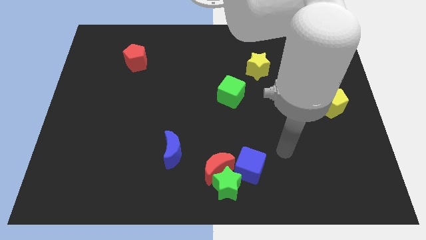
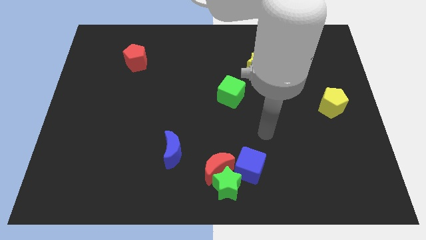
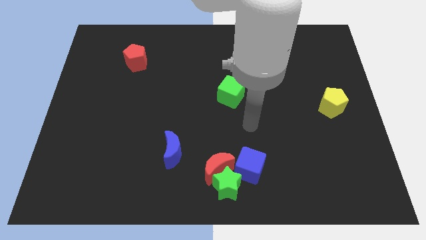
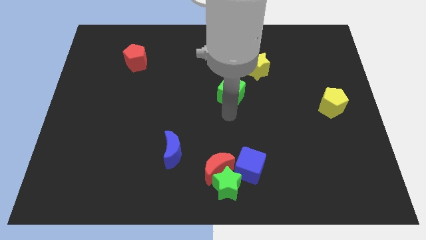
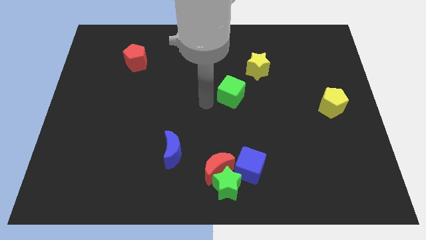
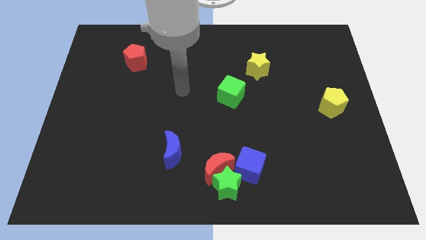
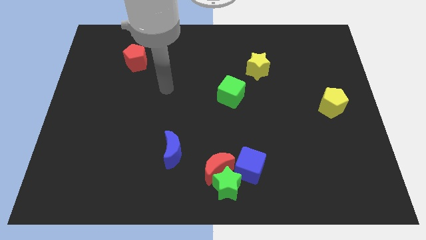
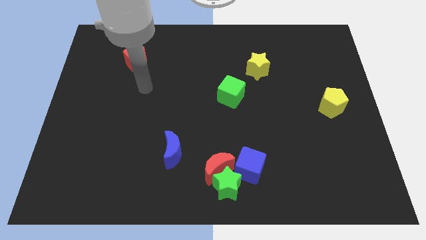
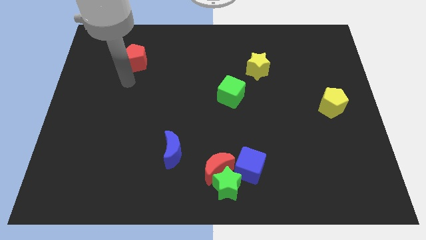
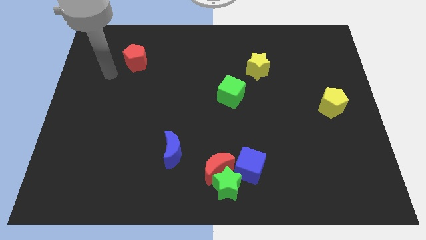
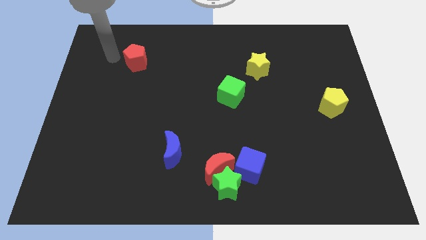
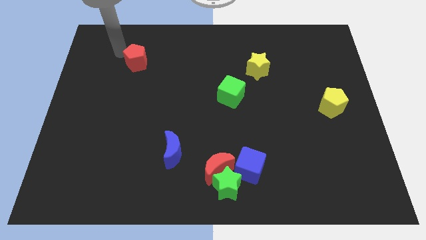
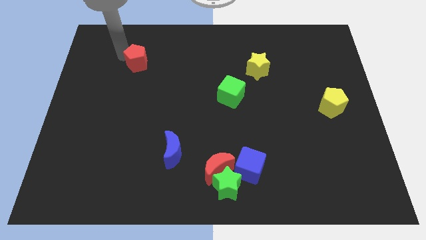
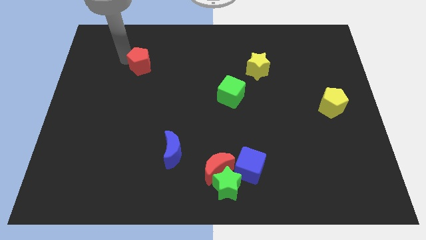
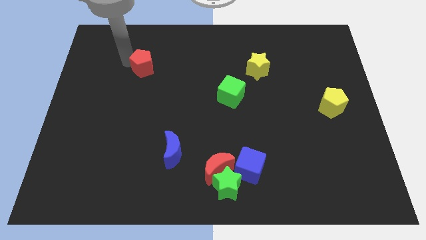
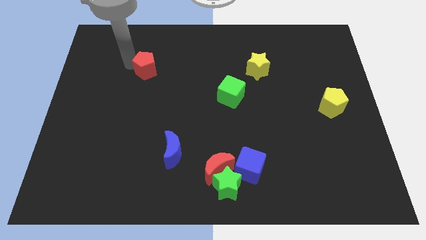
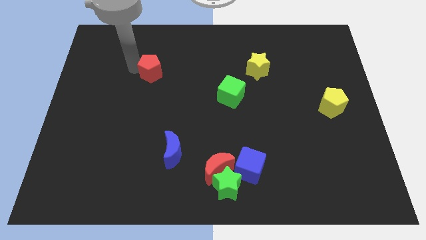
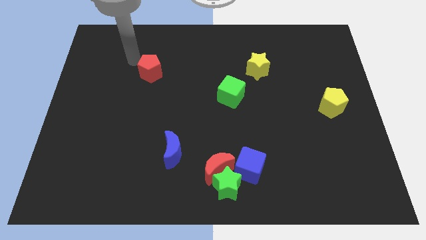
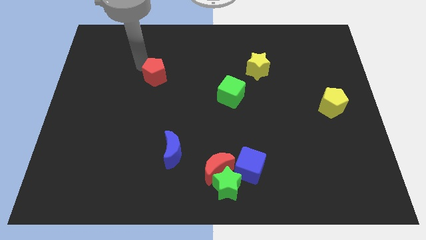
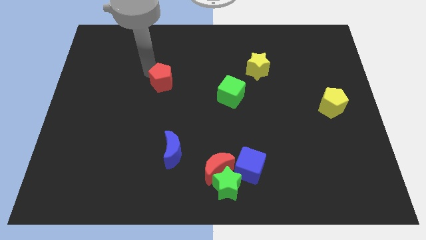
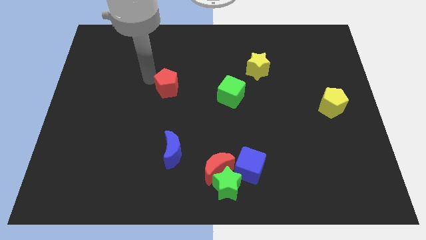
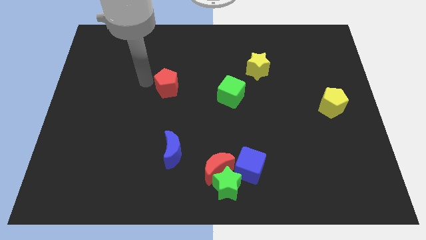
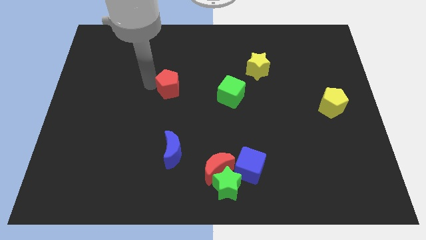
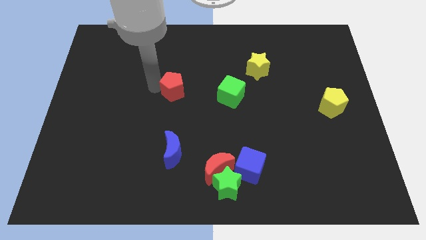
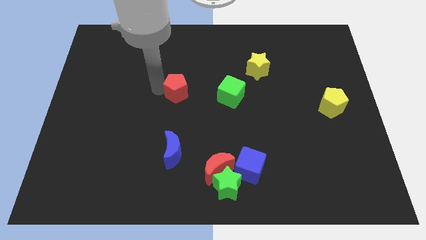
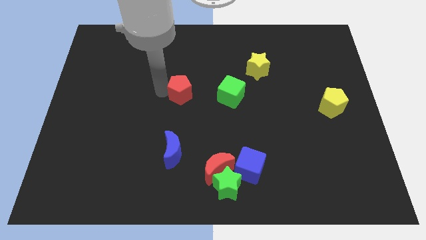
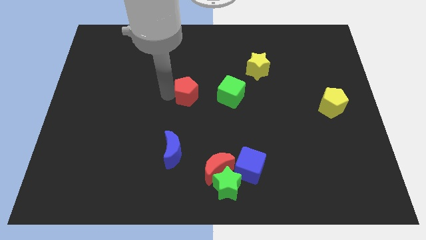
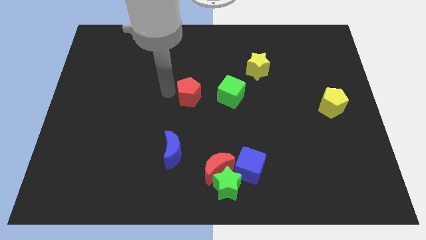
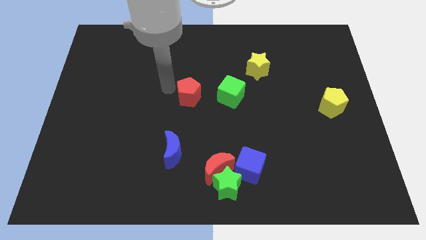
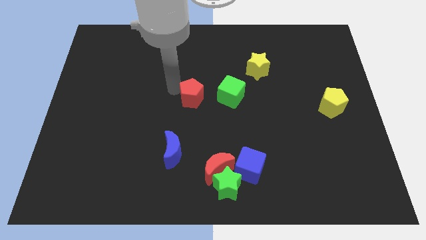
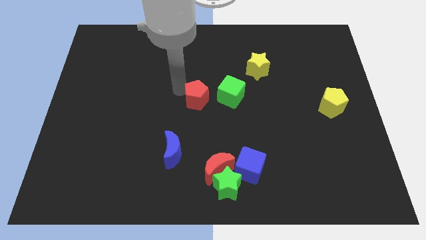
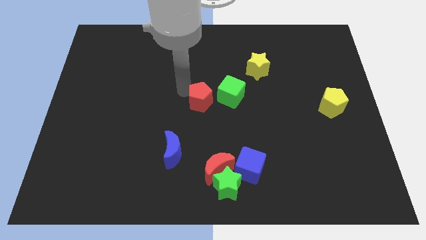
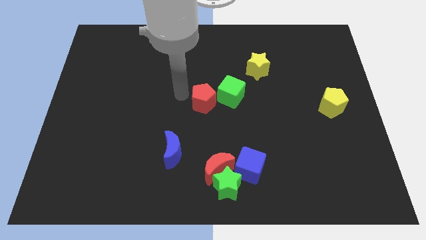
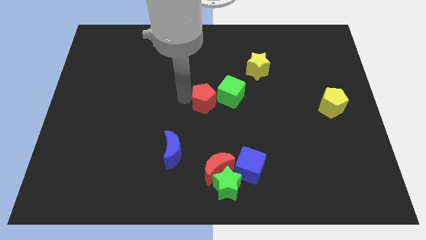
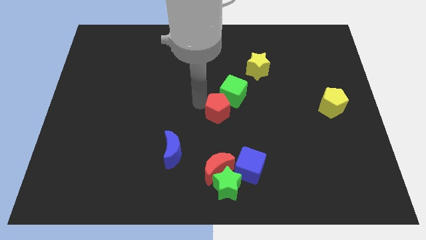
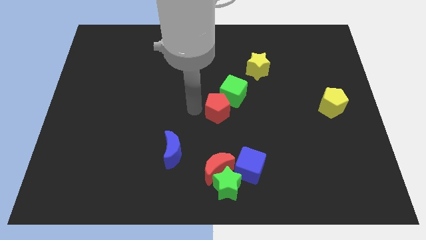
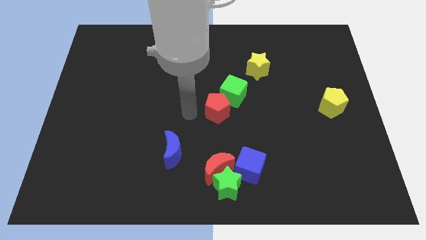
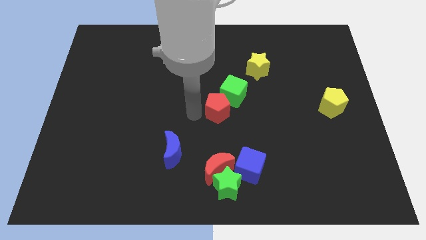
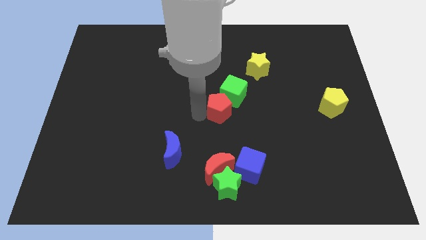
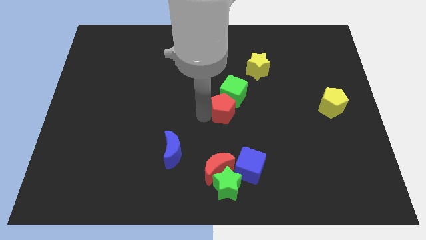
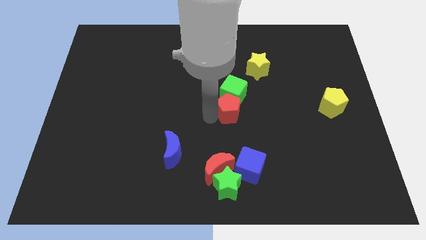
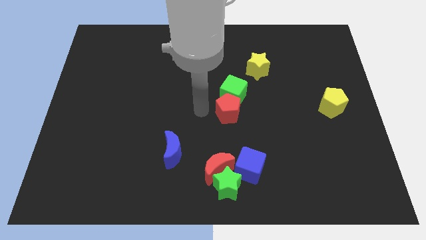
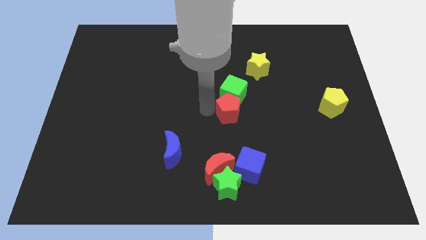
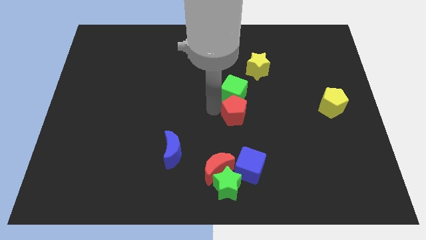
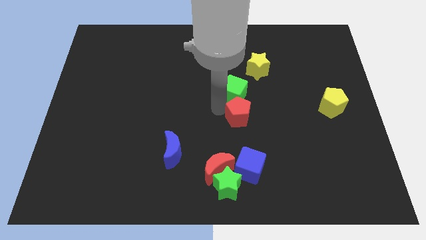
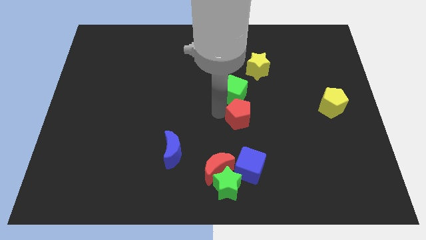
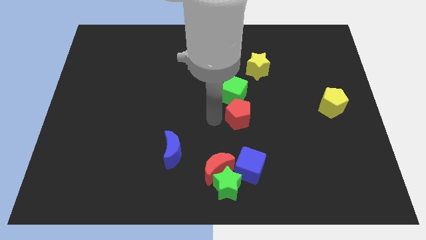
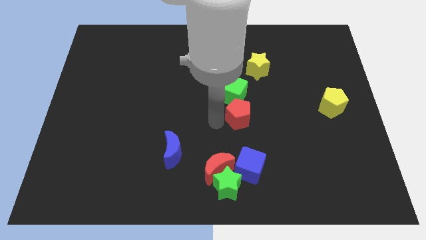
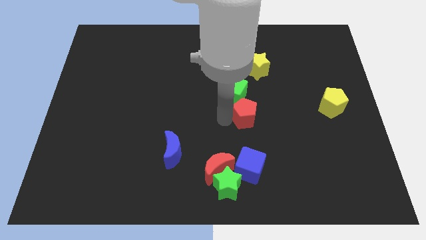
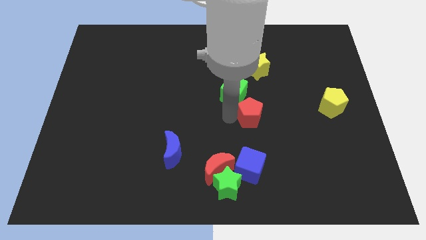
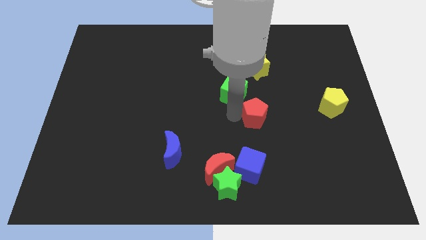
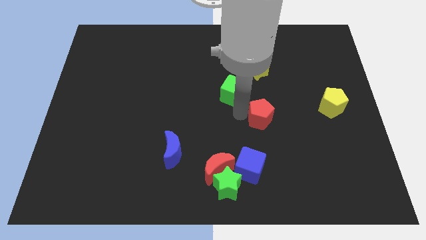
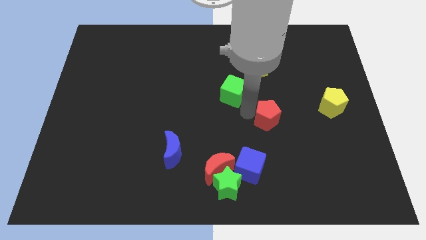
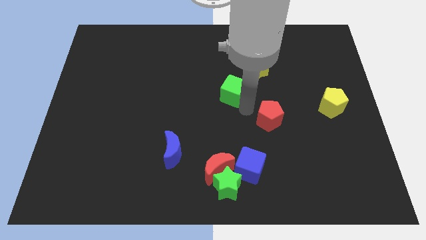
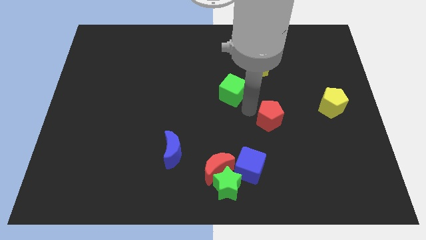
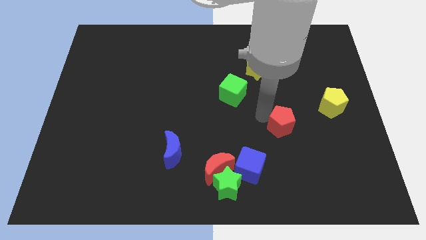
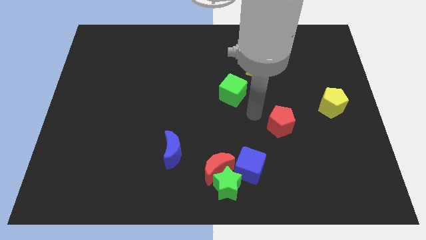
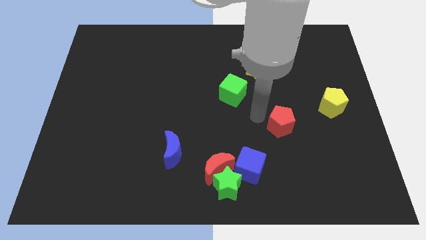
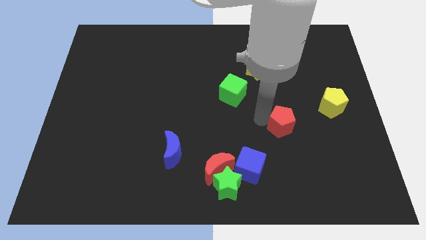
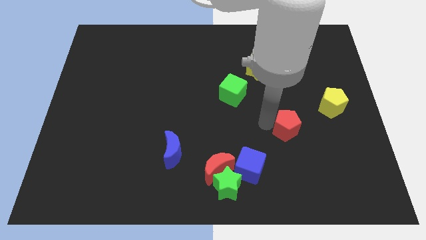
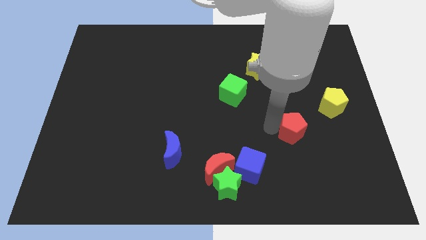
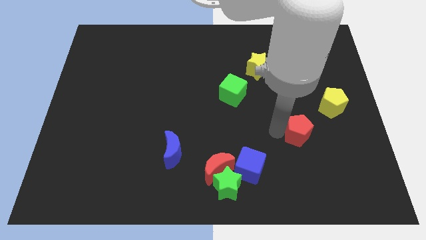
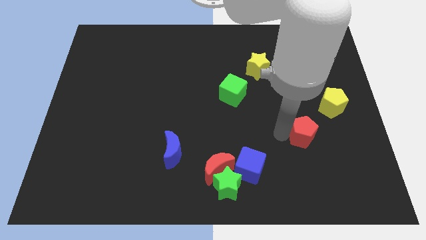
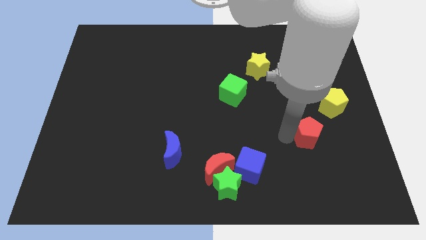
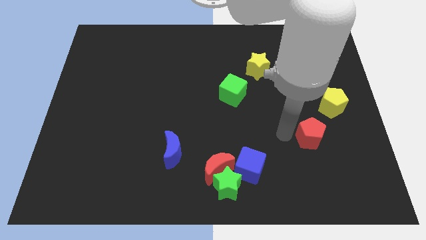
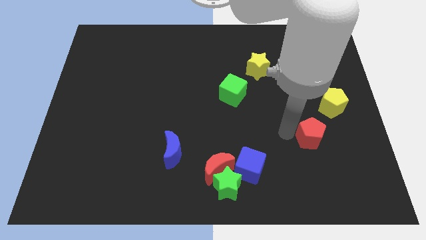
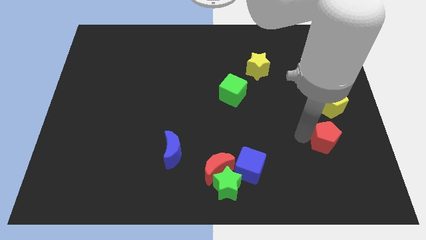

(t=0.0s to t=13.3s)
push the red pentagon to the bottom side of the yellow pentagon

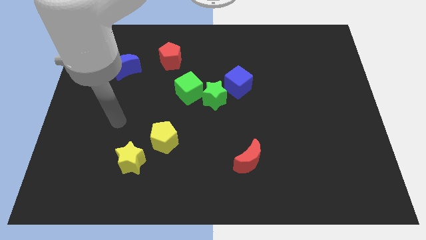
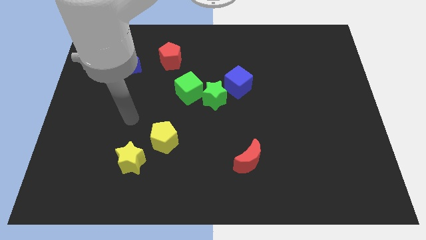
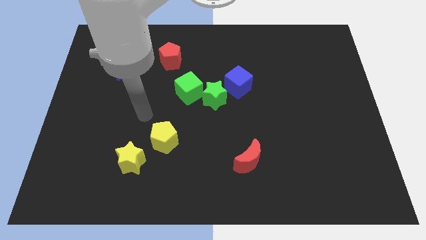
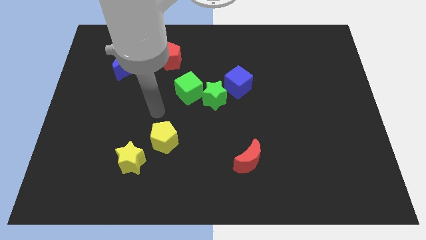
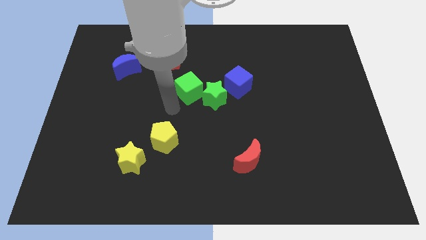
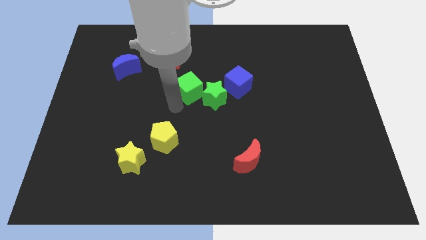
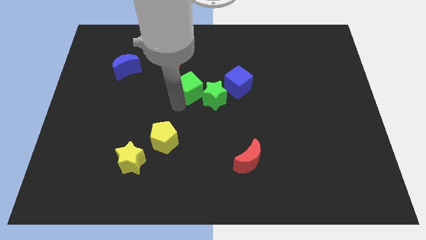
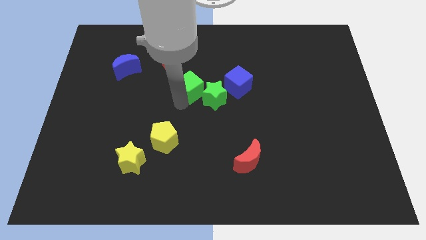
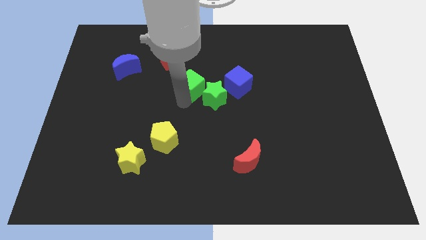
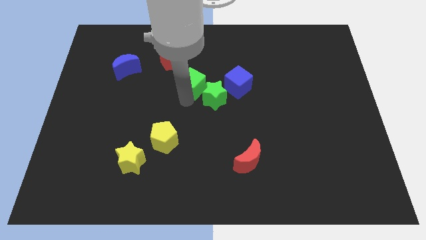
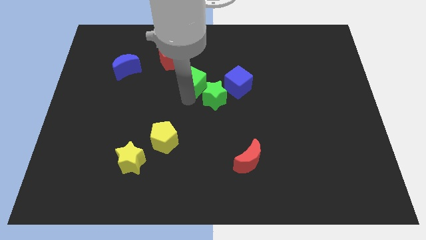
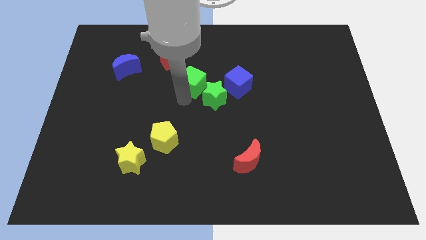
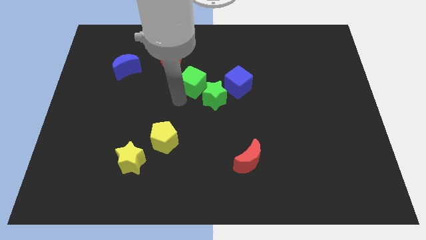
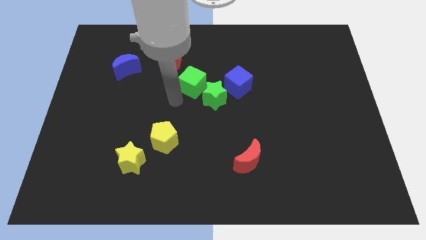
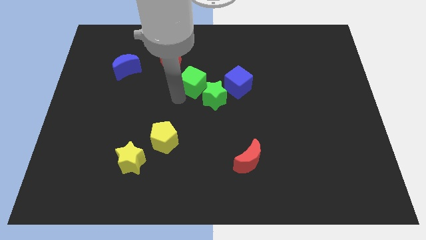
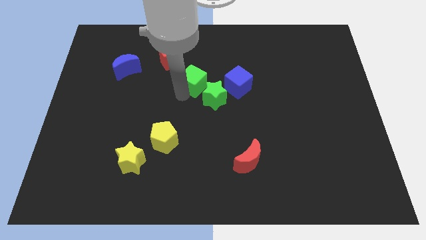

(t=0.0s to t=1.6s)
move the green cube to the top side of the green star
